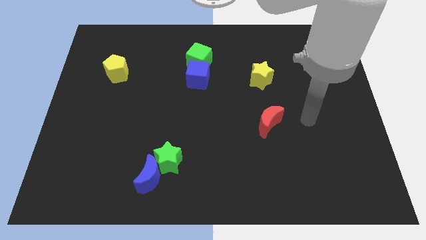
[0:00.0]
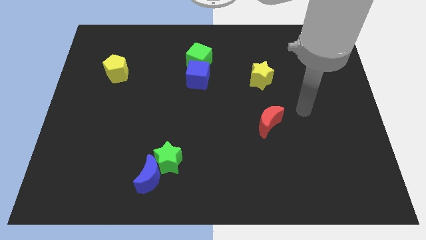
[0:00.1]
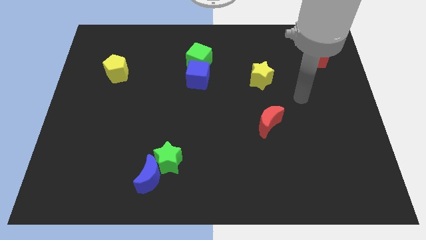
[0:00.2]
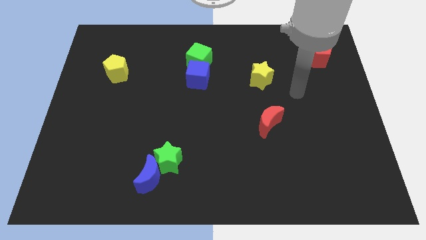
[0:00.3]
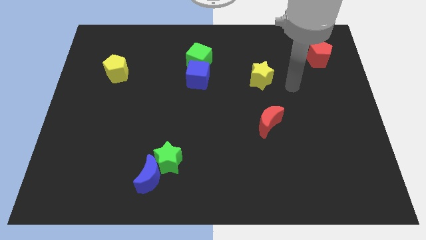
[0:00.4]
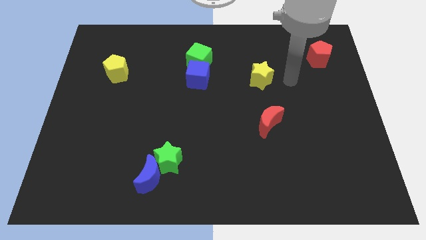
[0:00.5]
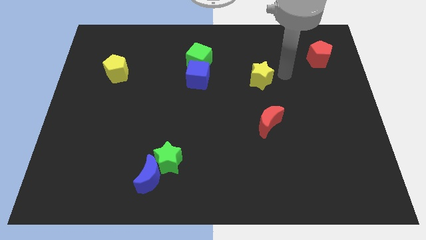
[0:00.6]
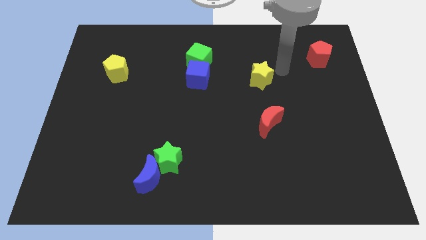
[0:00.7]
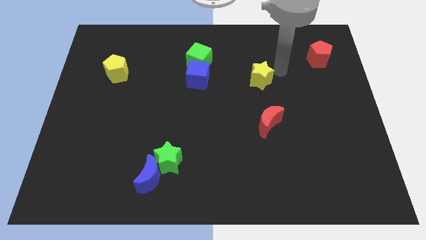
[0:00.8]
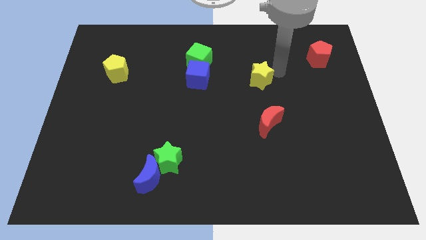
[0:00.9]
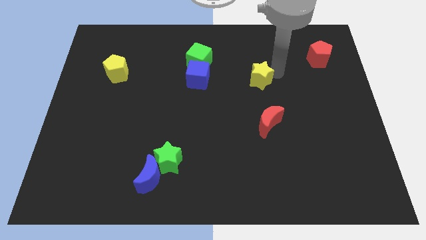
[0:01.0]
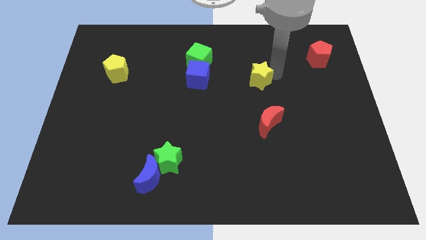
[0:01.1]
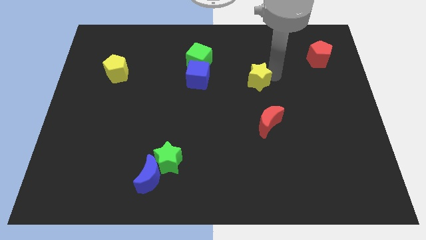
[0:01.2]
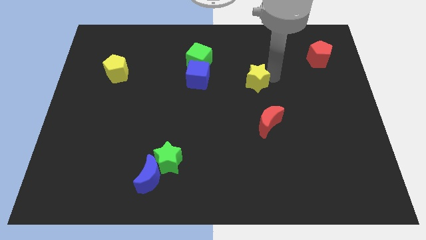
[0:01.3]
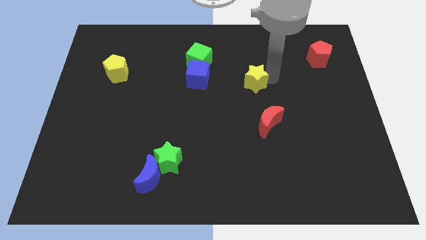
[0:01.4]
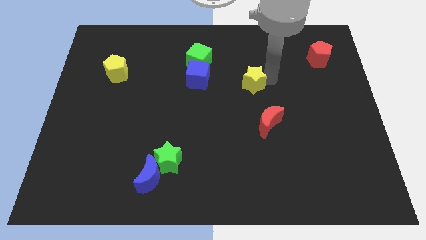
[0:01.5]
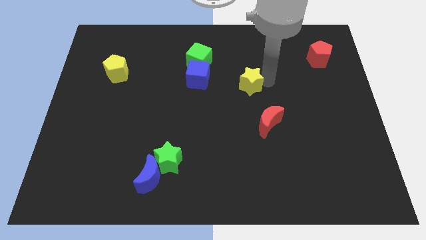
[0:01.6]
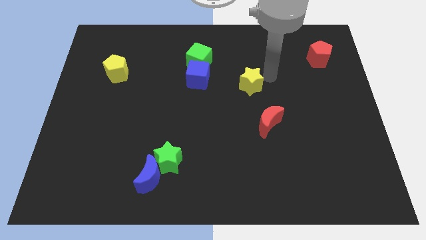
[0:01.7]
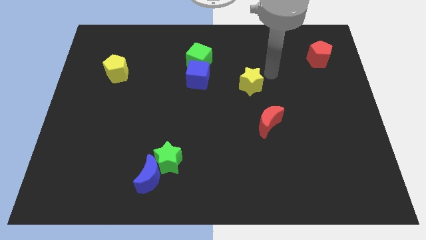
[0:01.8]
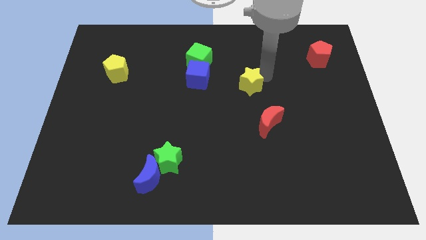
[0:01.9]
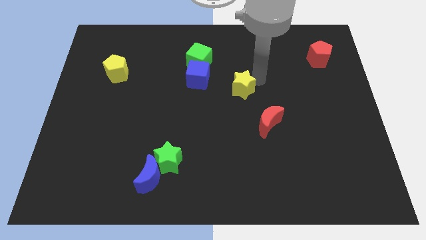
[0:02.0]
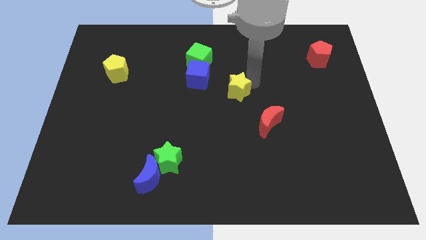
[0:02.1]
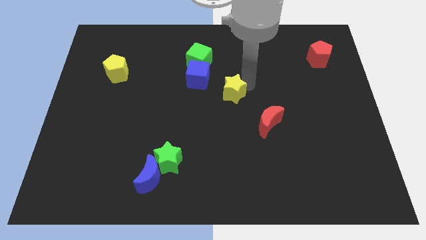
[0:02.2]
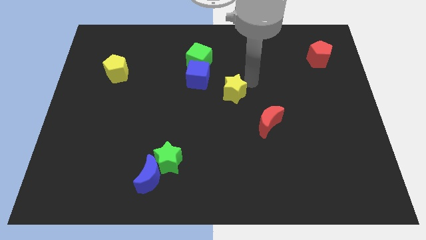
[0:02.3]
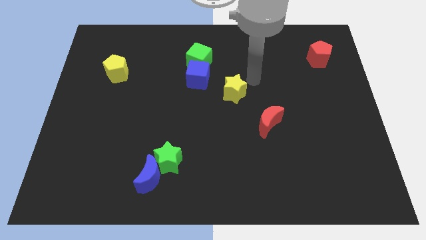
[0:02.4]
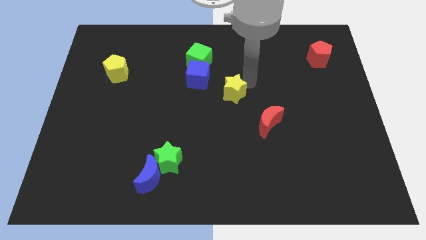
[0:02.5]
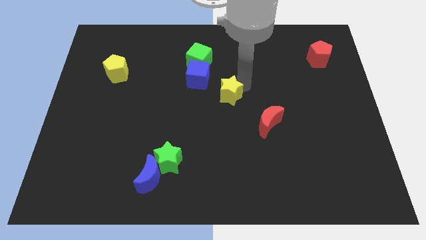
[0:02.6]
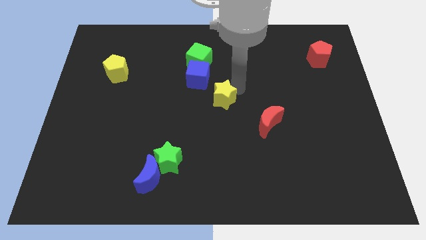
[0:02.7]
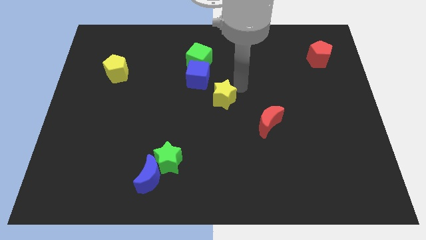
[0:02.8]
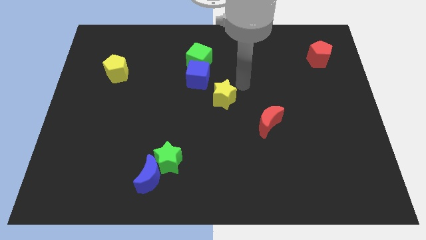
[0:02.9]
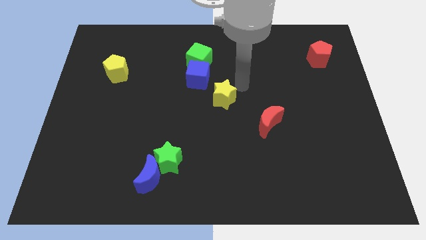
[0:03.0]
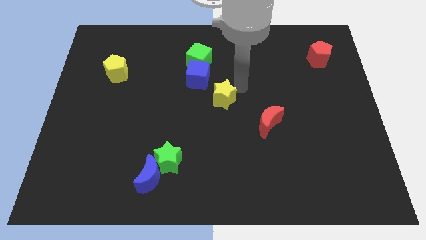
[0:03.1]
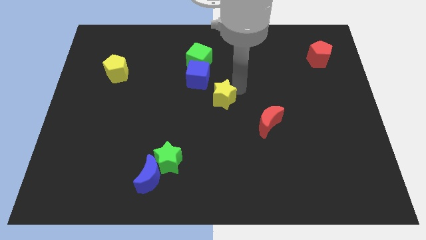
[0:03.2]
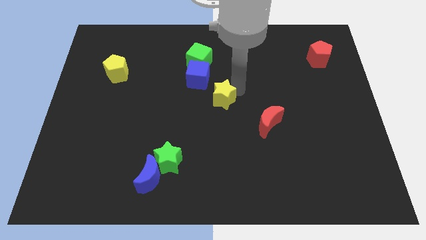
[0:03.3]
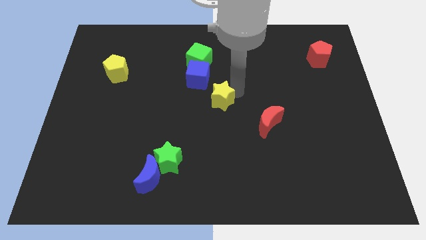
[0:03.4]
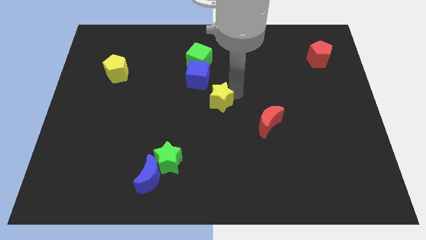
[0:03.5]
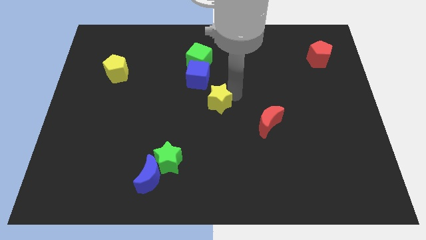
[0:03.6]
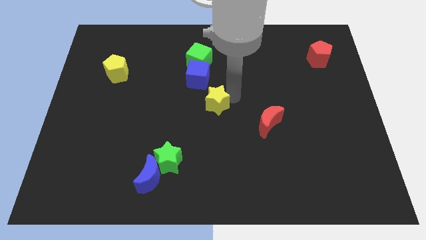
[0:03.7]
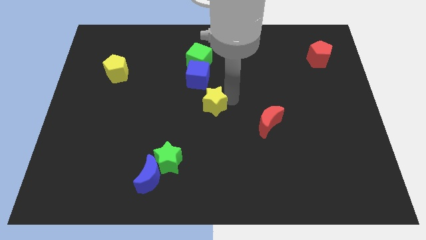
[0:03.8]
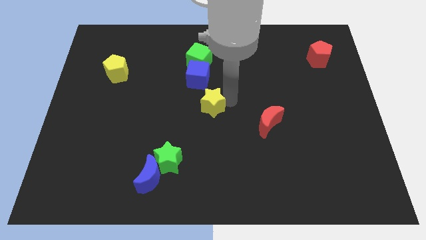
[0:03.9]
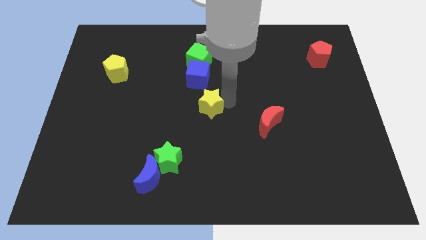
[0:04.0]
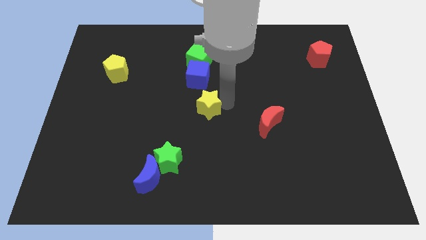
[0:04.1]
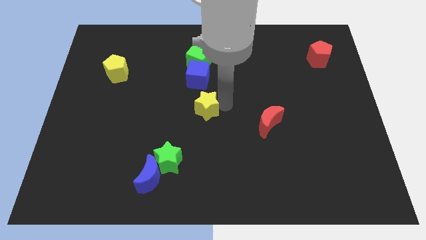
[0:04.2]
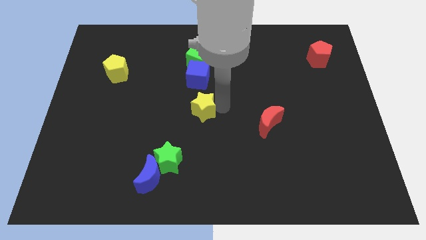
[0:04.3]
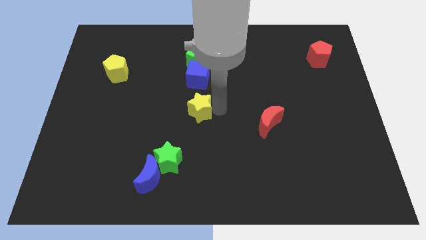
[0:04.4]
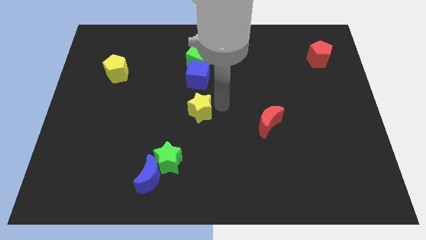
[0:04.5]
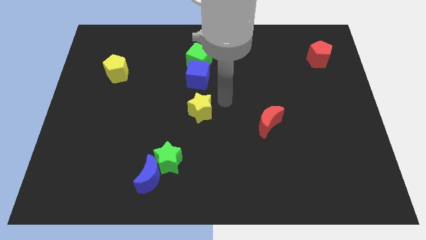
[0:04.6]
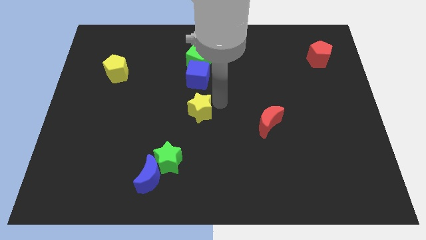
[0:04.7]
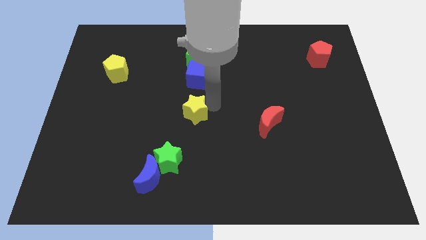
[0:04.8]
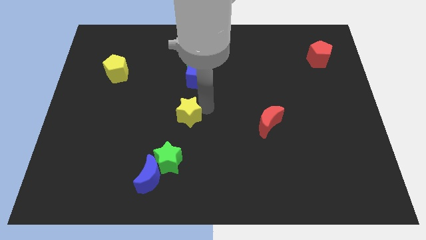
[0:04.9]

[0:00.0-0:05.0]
put the yellow star to the top side of the green star

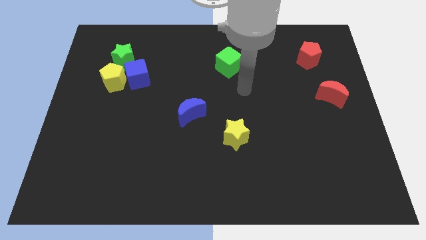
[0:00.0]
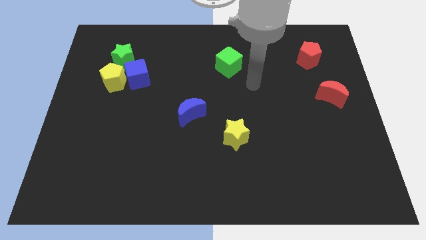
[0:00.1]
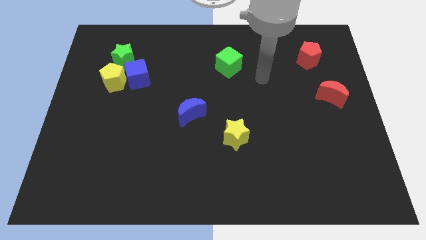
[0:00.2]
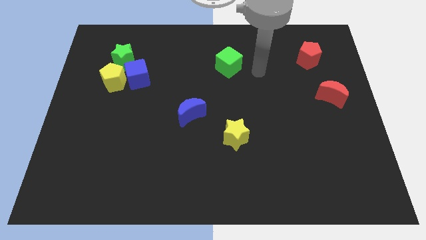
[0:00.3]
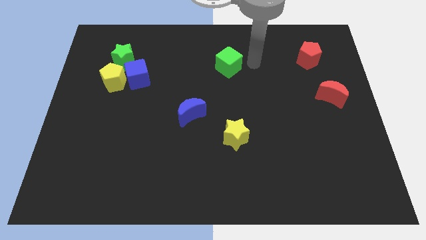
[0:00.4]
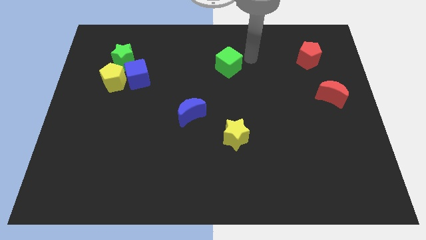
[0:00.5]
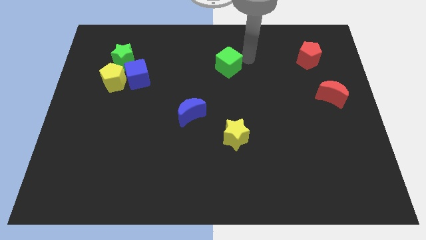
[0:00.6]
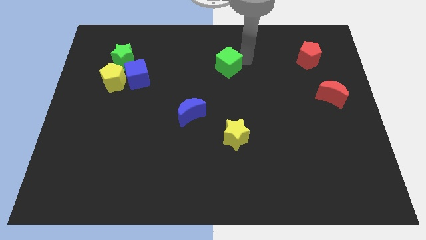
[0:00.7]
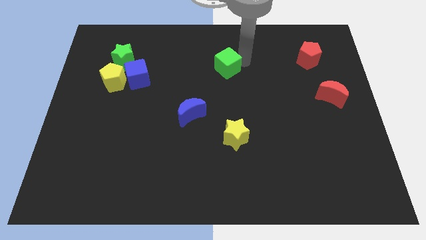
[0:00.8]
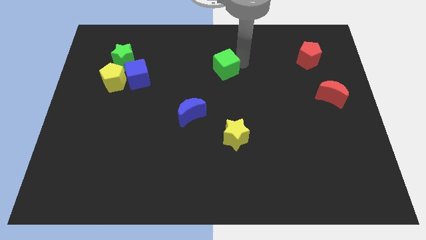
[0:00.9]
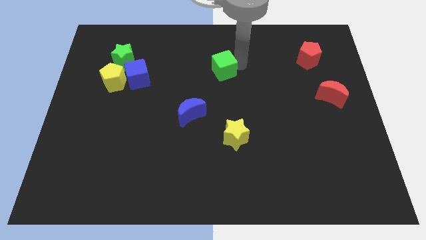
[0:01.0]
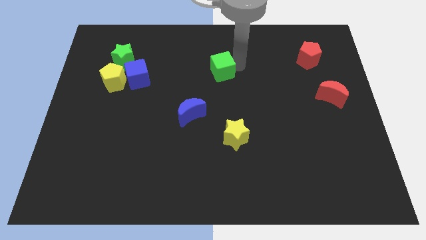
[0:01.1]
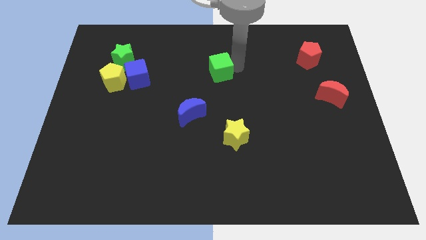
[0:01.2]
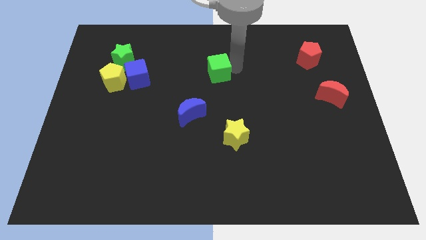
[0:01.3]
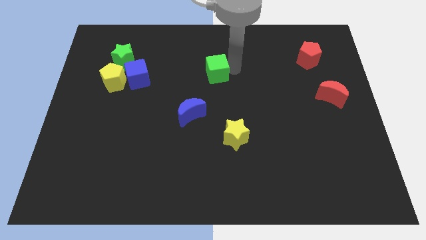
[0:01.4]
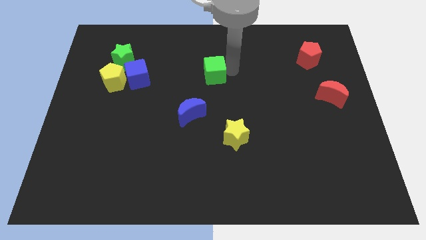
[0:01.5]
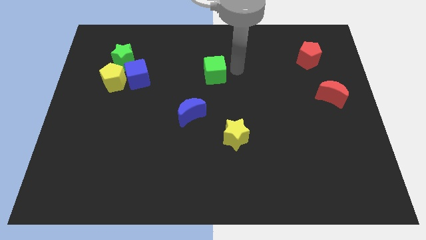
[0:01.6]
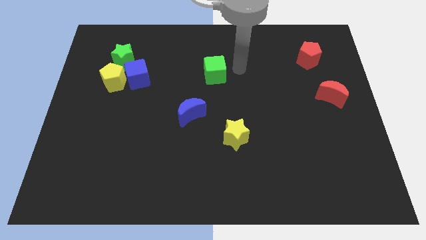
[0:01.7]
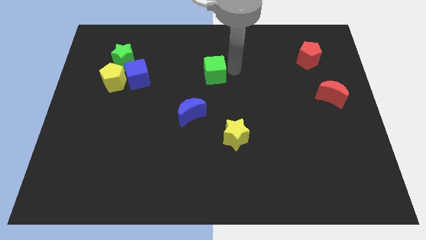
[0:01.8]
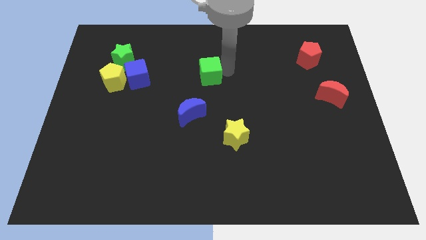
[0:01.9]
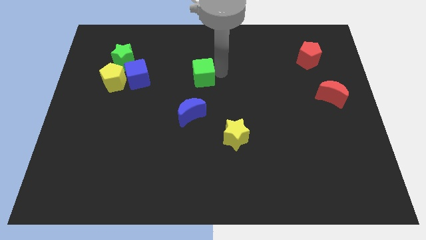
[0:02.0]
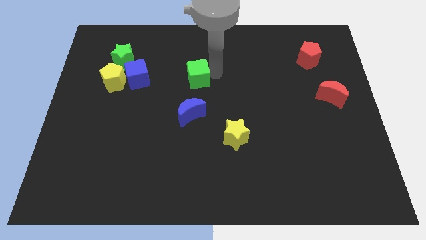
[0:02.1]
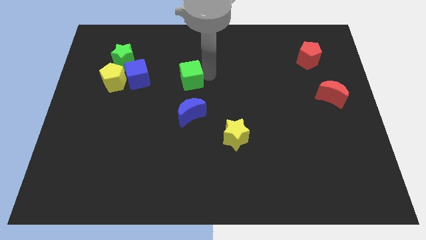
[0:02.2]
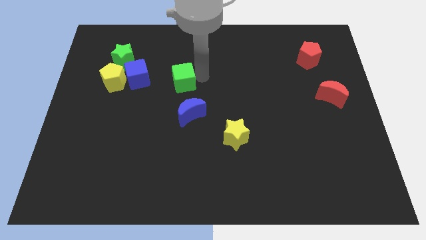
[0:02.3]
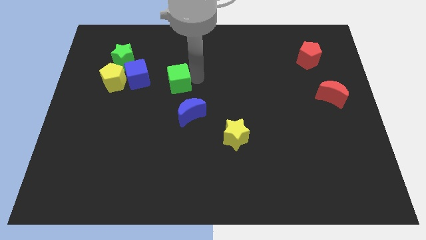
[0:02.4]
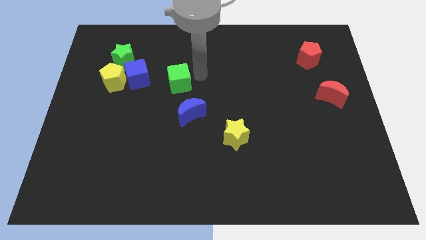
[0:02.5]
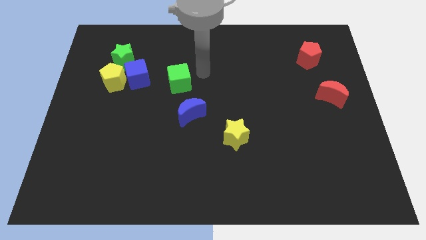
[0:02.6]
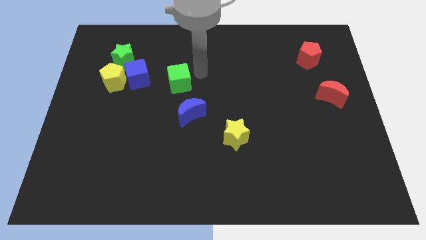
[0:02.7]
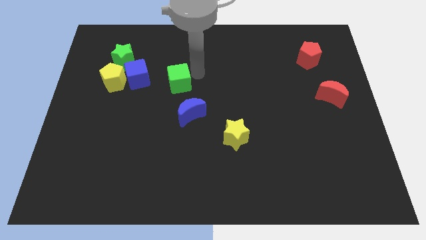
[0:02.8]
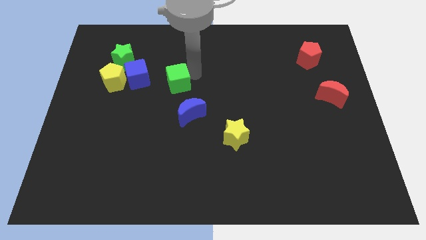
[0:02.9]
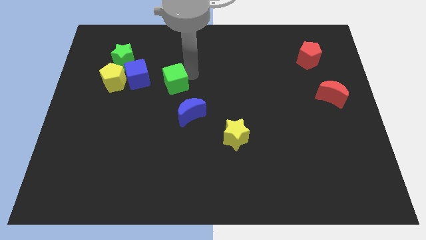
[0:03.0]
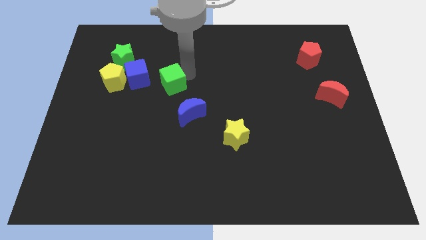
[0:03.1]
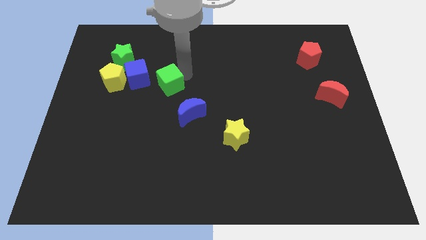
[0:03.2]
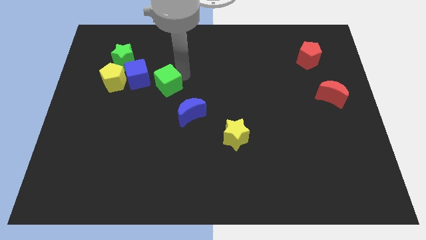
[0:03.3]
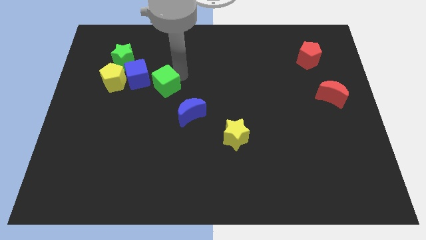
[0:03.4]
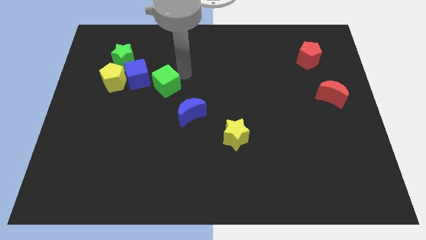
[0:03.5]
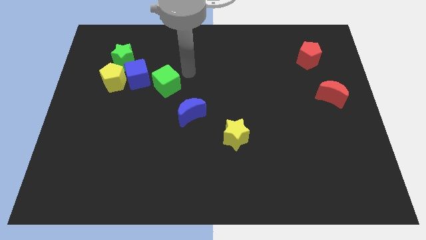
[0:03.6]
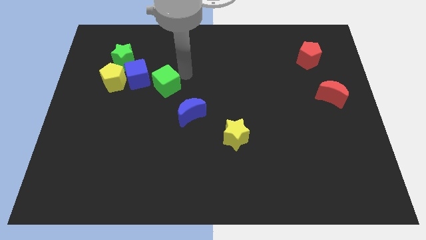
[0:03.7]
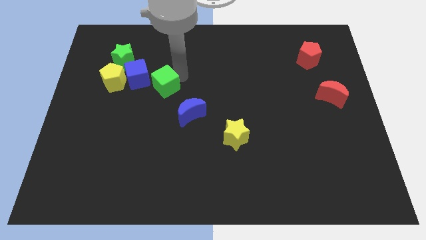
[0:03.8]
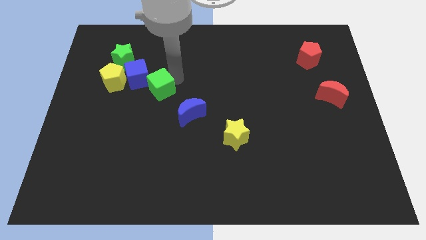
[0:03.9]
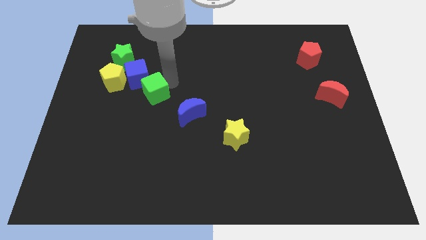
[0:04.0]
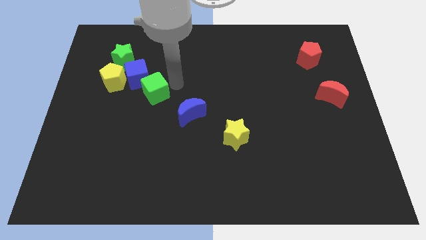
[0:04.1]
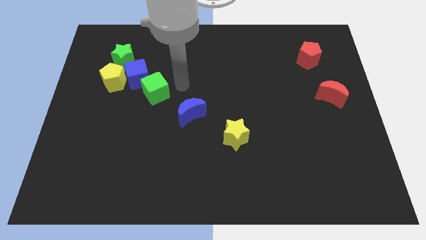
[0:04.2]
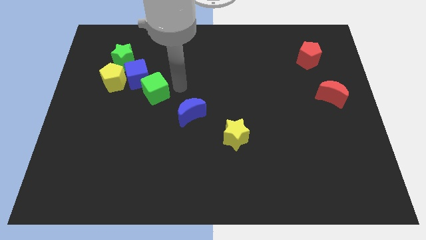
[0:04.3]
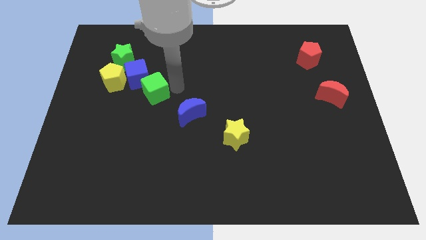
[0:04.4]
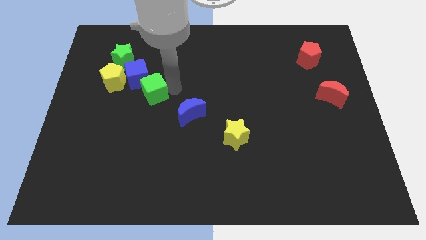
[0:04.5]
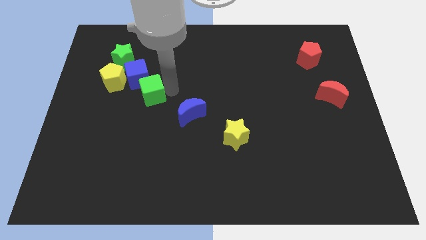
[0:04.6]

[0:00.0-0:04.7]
put the green cube diagonally down and to the right of the yellow pentagon
